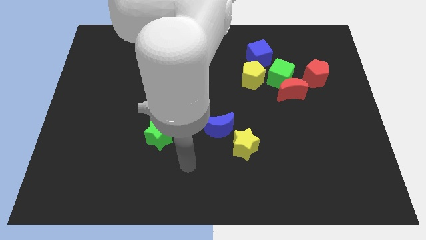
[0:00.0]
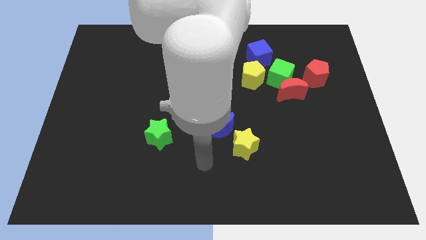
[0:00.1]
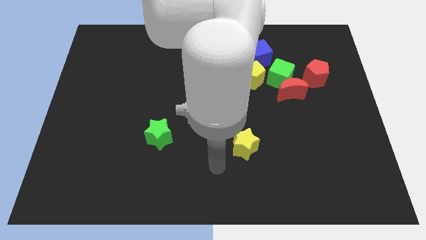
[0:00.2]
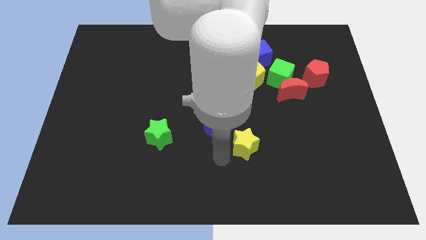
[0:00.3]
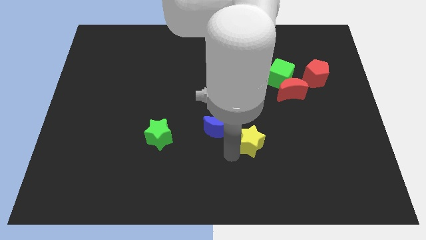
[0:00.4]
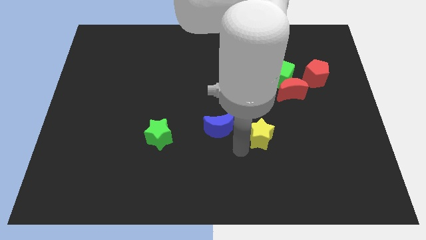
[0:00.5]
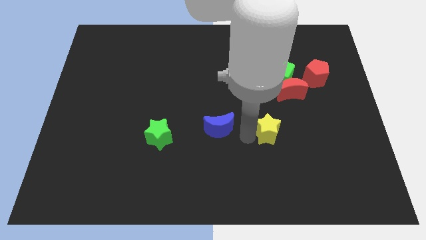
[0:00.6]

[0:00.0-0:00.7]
move the blue moon away from the yellow star

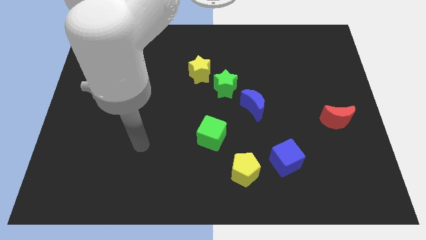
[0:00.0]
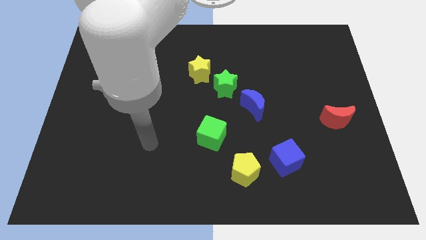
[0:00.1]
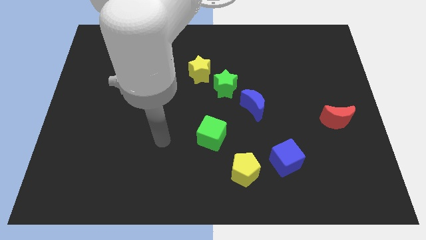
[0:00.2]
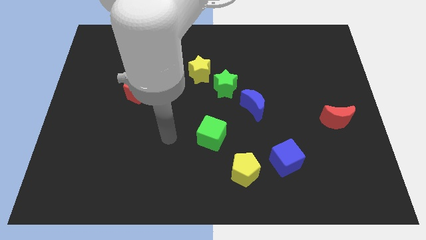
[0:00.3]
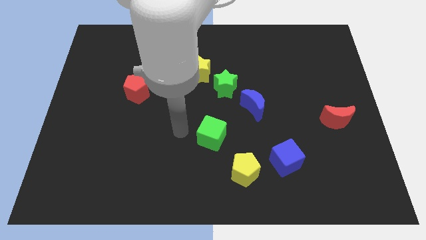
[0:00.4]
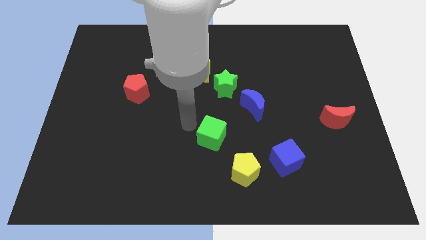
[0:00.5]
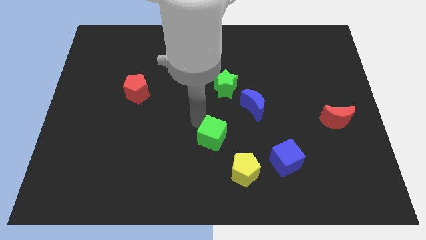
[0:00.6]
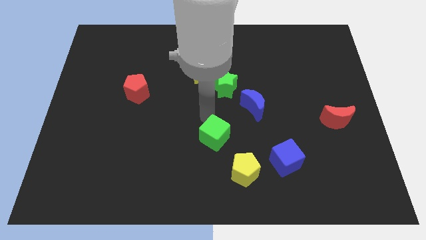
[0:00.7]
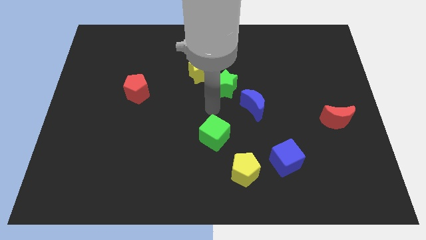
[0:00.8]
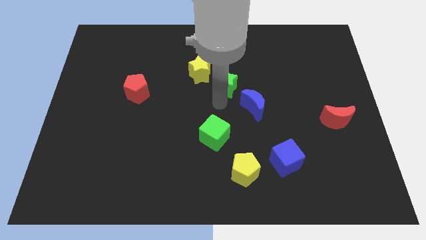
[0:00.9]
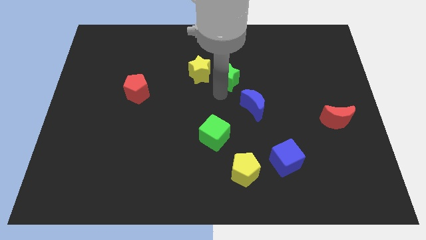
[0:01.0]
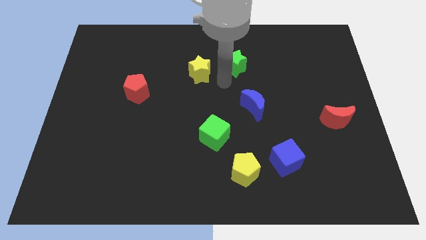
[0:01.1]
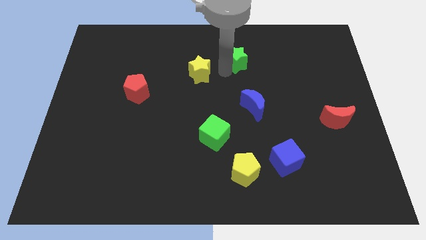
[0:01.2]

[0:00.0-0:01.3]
separate the yellow star from the green star

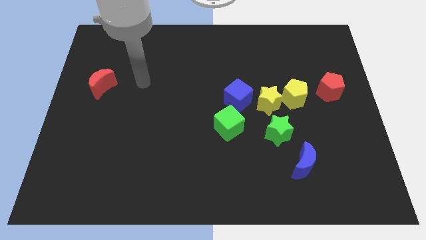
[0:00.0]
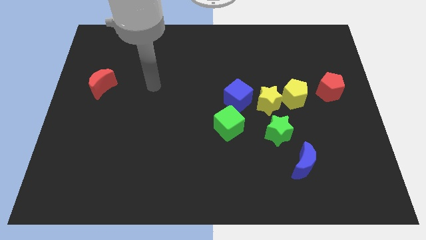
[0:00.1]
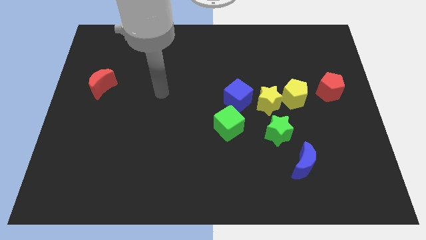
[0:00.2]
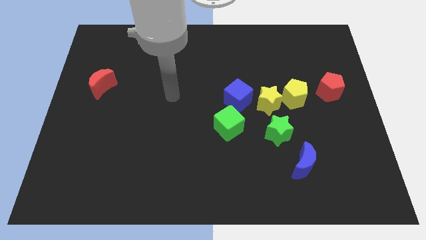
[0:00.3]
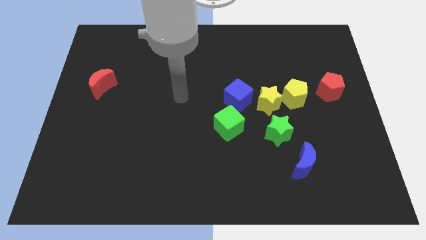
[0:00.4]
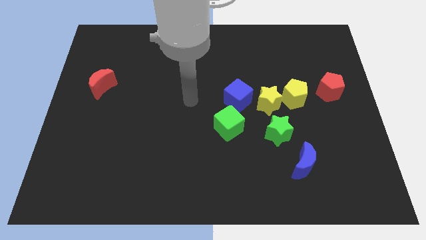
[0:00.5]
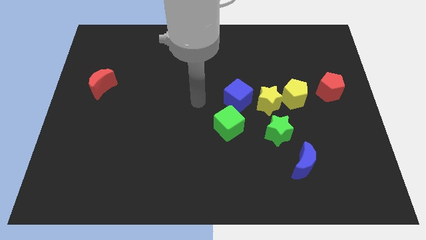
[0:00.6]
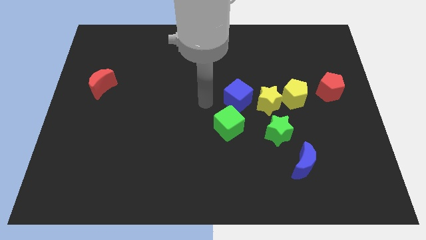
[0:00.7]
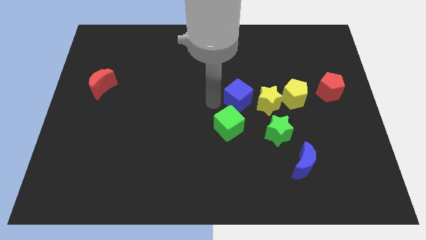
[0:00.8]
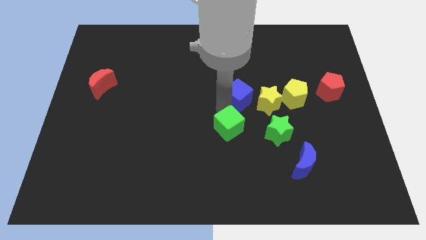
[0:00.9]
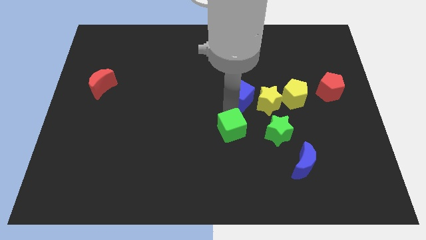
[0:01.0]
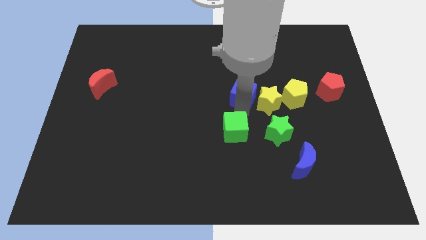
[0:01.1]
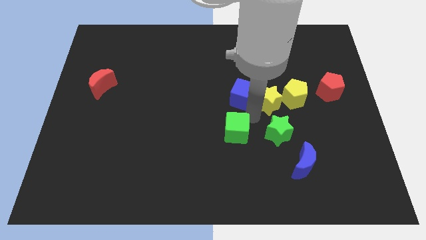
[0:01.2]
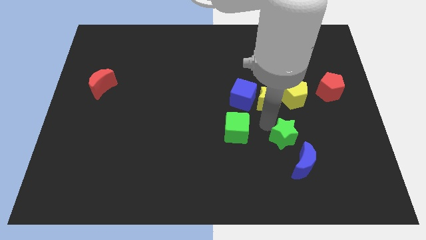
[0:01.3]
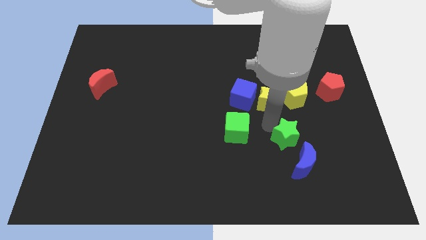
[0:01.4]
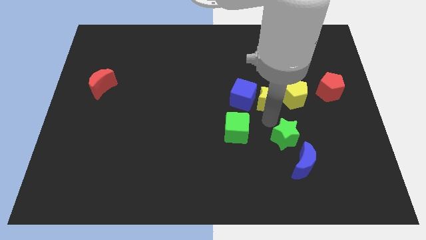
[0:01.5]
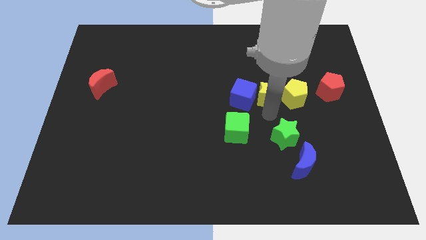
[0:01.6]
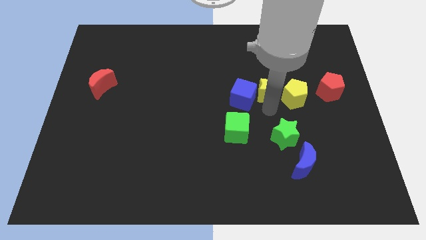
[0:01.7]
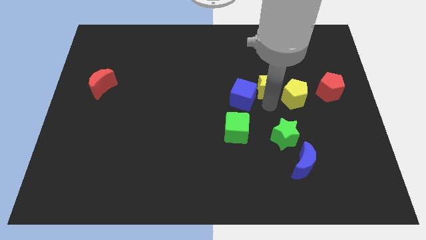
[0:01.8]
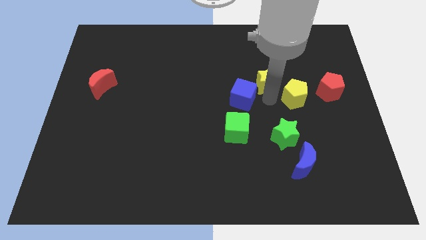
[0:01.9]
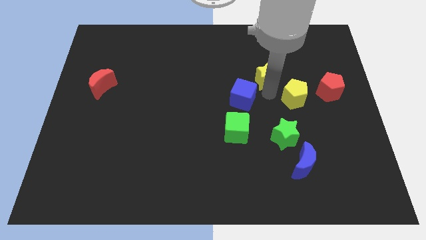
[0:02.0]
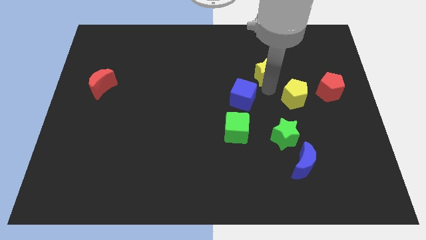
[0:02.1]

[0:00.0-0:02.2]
move the yellow star away from the group of blocks

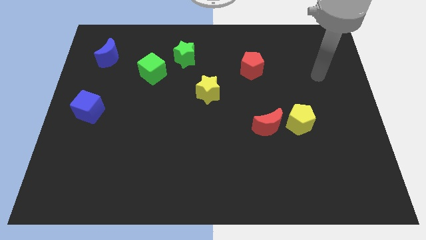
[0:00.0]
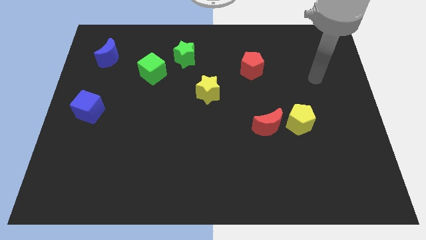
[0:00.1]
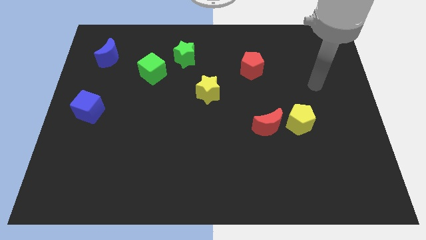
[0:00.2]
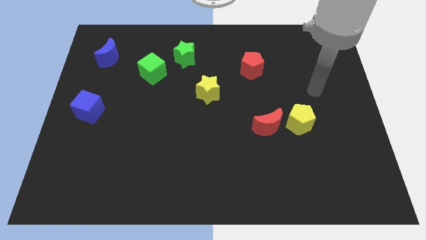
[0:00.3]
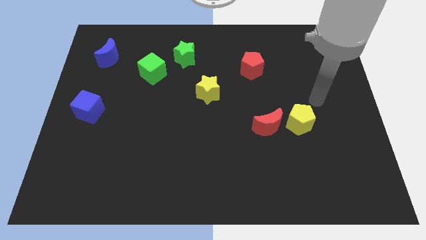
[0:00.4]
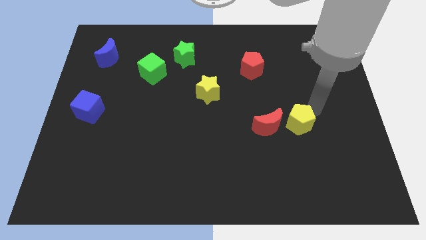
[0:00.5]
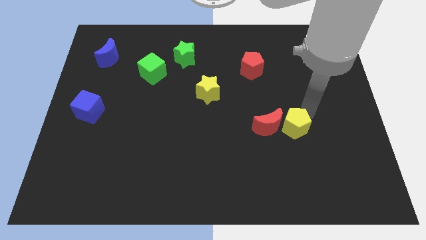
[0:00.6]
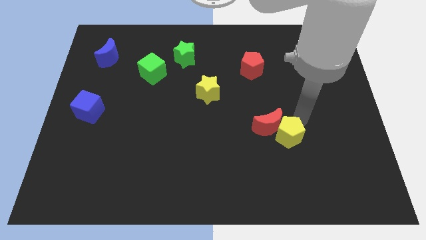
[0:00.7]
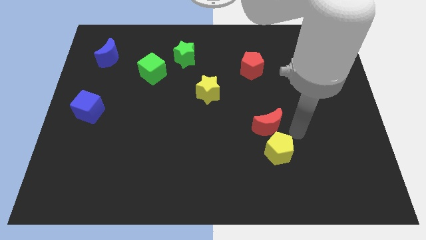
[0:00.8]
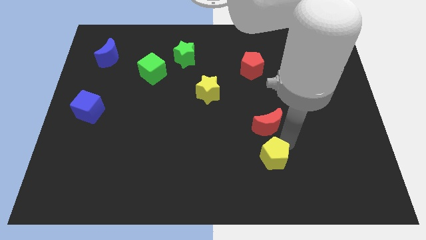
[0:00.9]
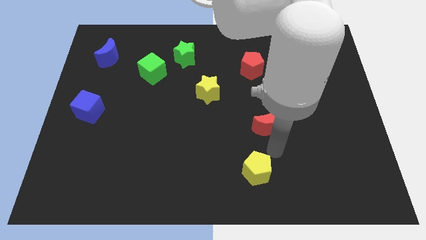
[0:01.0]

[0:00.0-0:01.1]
move the red moon away from the yellow pentagon

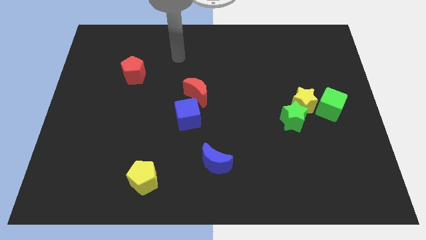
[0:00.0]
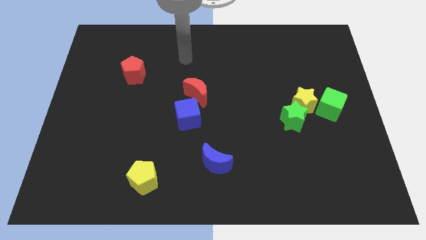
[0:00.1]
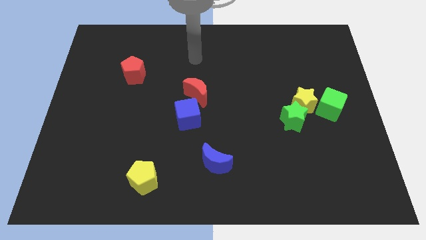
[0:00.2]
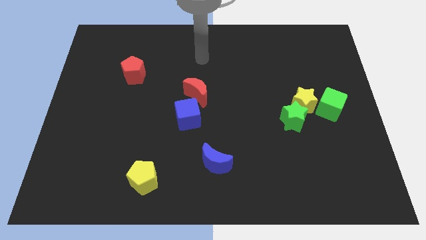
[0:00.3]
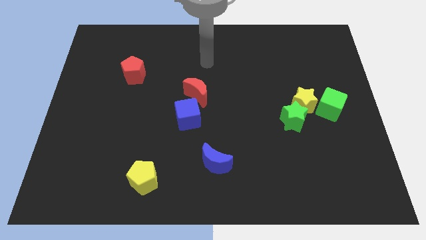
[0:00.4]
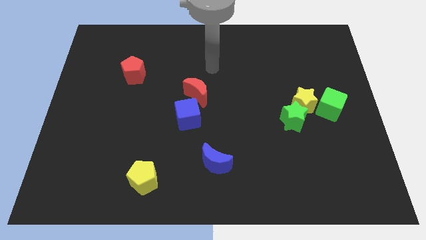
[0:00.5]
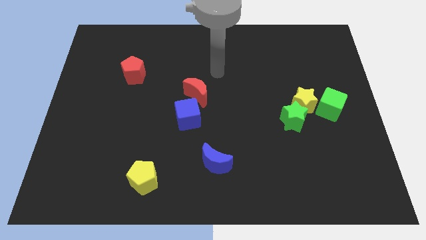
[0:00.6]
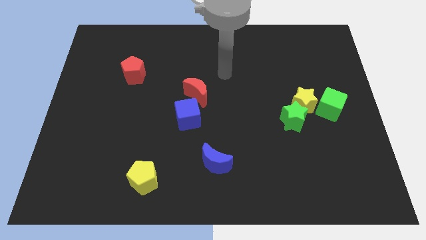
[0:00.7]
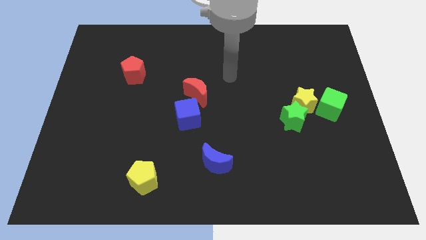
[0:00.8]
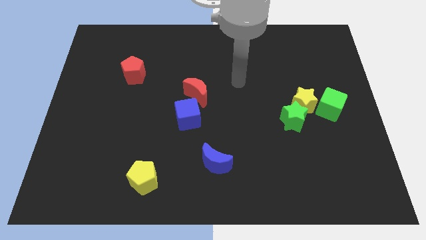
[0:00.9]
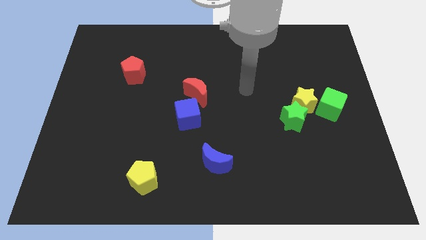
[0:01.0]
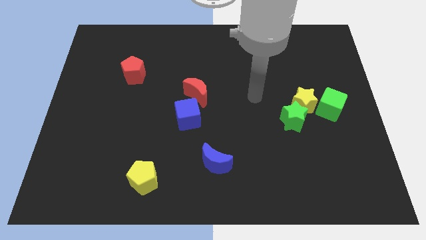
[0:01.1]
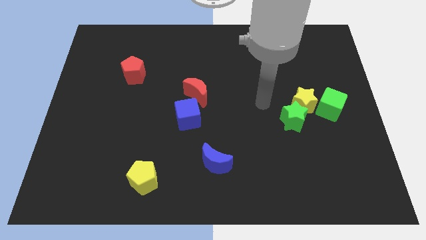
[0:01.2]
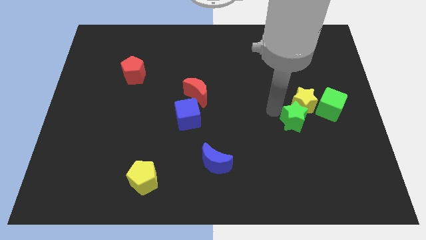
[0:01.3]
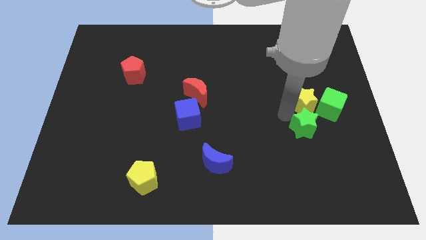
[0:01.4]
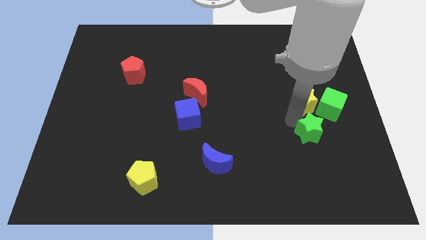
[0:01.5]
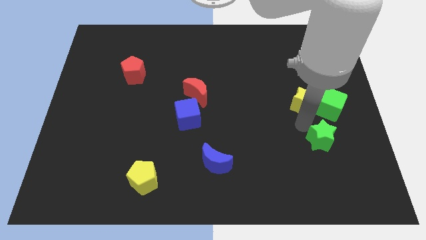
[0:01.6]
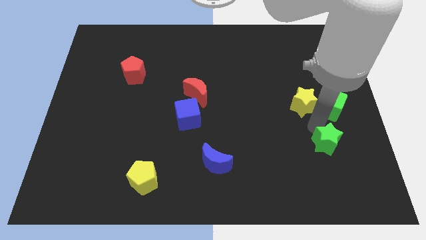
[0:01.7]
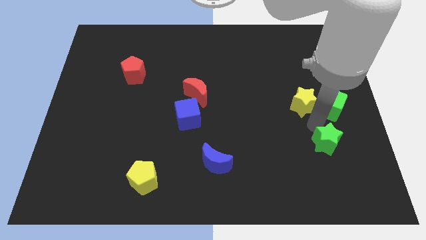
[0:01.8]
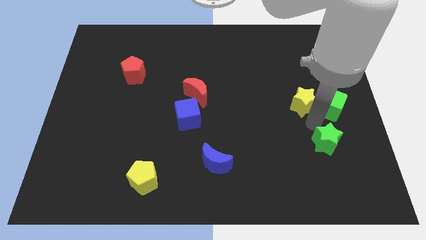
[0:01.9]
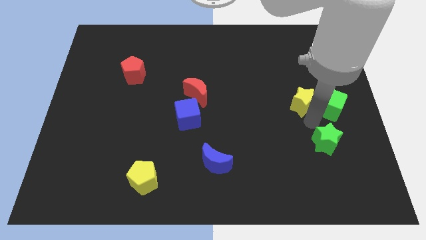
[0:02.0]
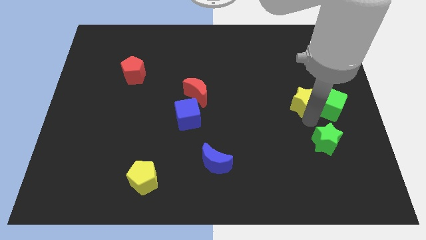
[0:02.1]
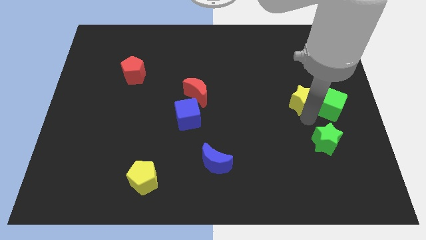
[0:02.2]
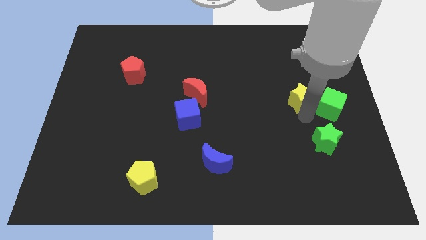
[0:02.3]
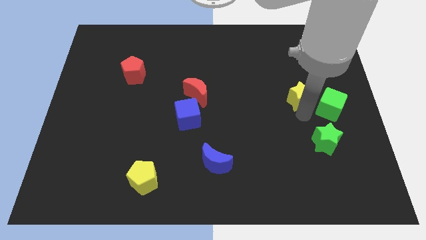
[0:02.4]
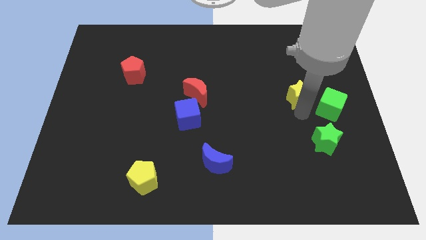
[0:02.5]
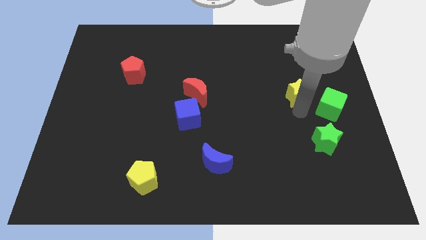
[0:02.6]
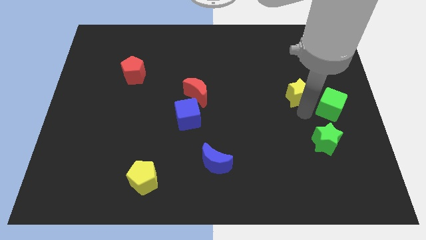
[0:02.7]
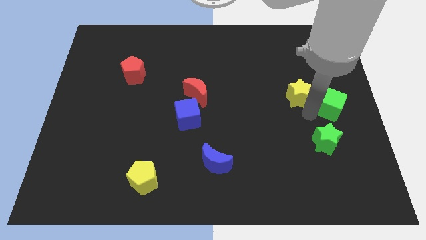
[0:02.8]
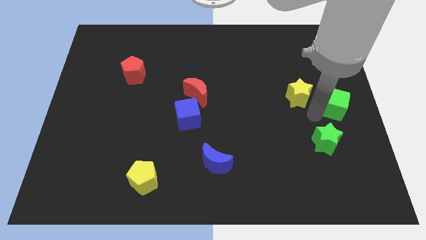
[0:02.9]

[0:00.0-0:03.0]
pull the yellow star apart from the green star and green cube

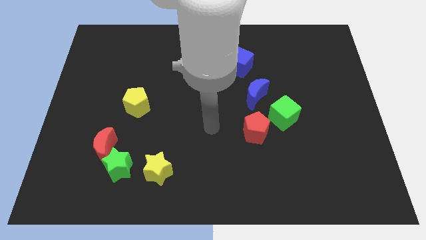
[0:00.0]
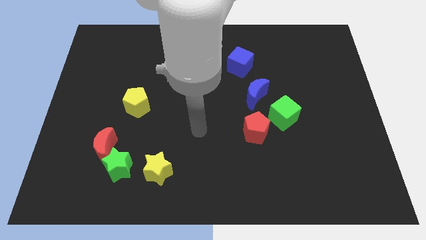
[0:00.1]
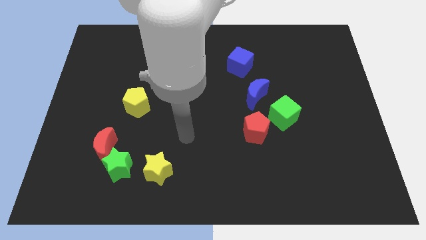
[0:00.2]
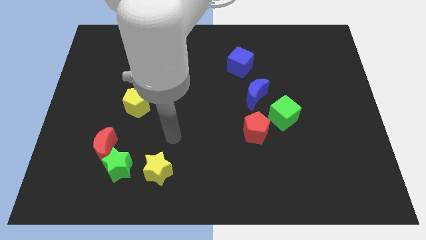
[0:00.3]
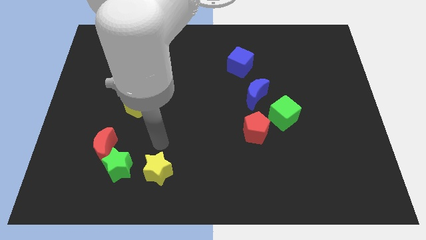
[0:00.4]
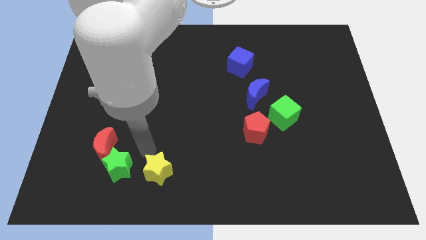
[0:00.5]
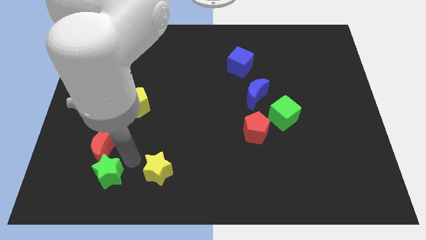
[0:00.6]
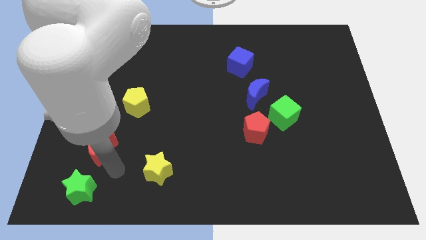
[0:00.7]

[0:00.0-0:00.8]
separate the red moon from the green star

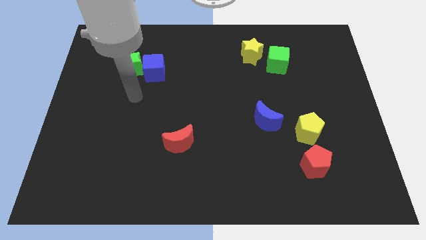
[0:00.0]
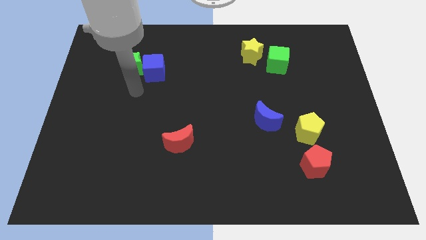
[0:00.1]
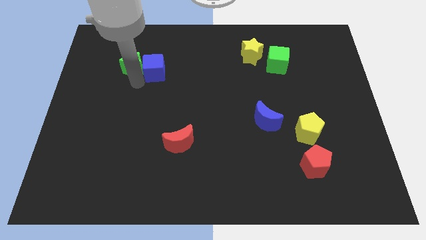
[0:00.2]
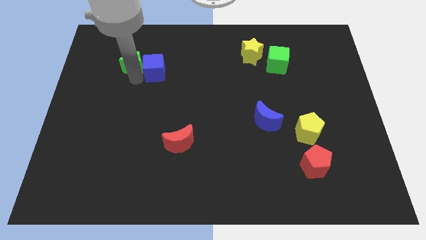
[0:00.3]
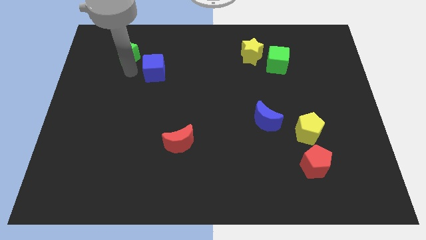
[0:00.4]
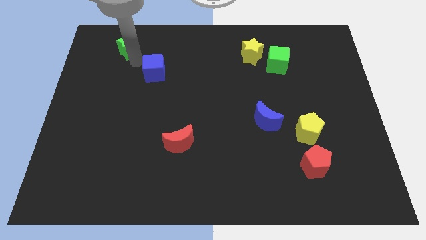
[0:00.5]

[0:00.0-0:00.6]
separate the blue cube from the green star
